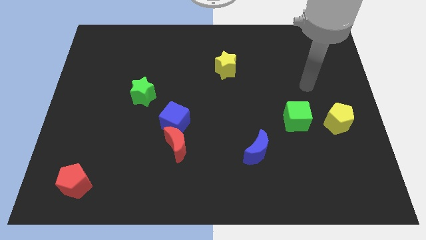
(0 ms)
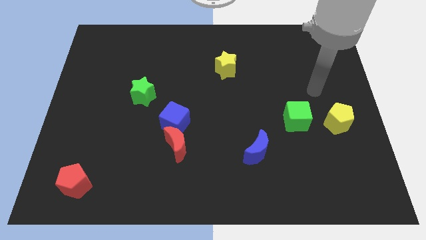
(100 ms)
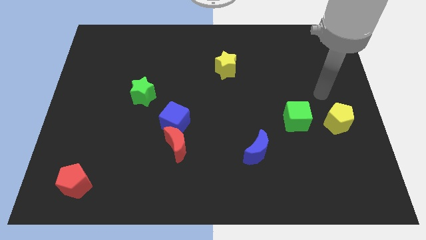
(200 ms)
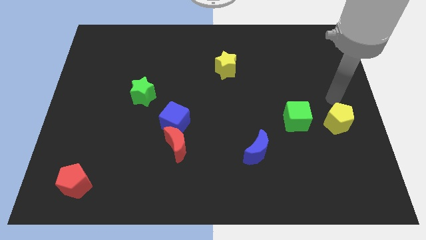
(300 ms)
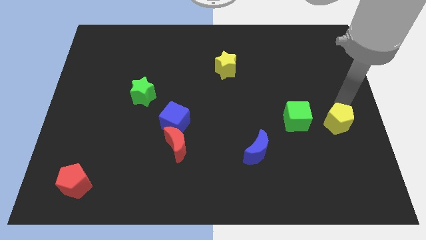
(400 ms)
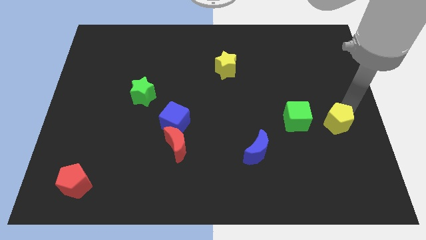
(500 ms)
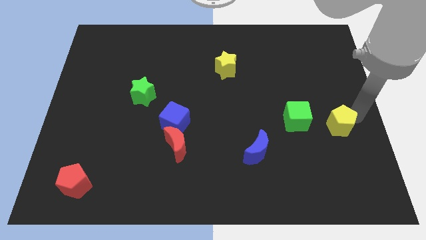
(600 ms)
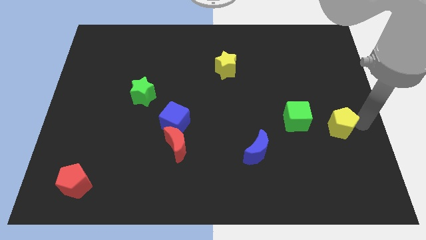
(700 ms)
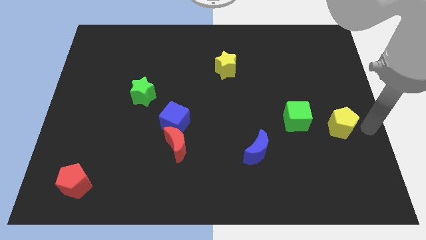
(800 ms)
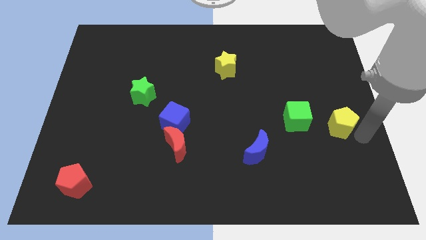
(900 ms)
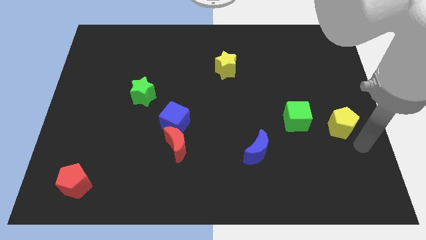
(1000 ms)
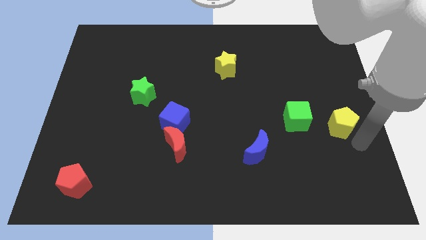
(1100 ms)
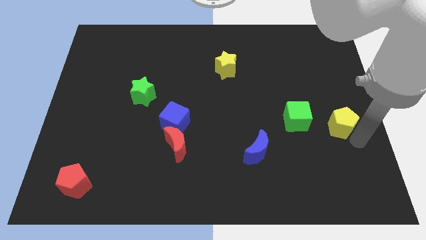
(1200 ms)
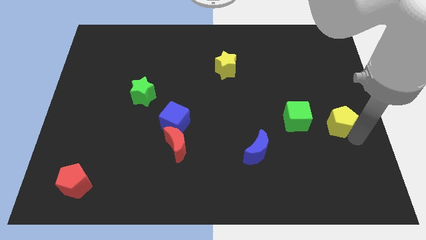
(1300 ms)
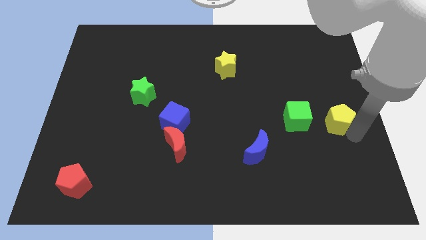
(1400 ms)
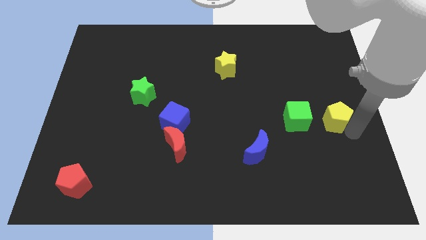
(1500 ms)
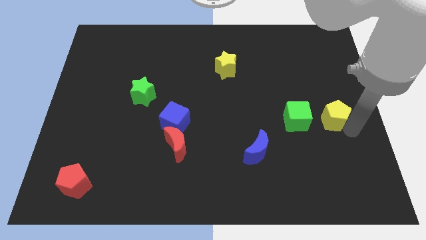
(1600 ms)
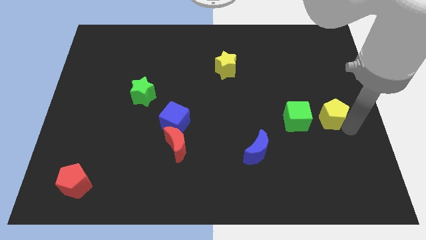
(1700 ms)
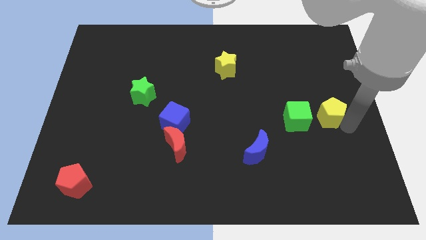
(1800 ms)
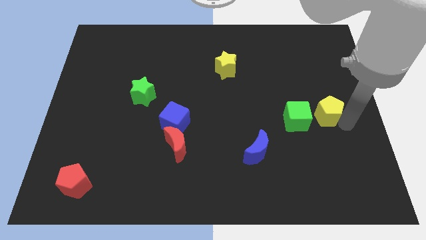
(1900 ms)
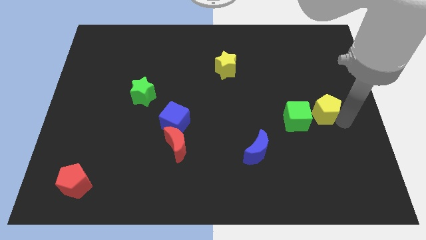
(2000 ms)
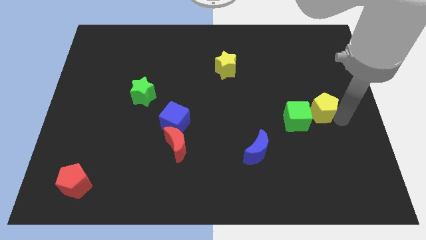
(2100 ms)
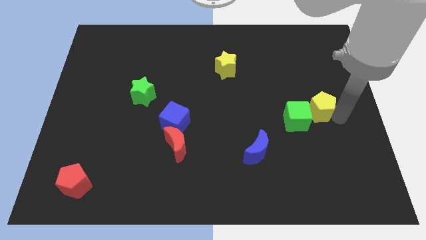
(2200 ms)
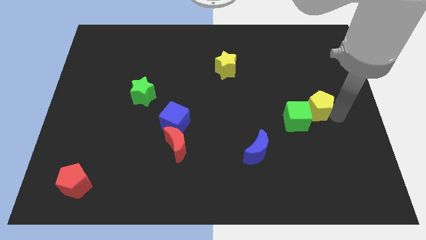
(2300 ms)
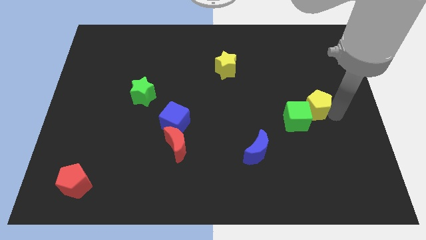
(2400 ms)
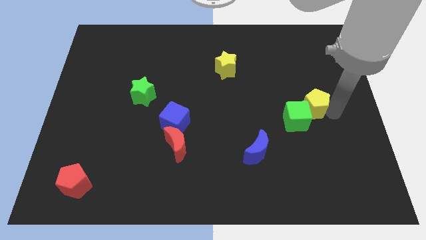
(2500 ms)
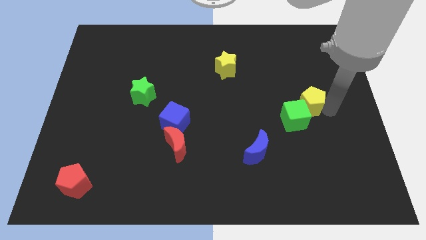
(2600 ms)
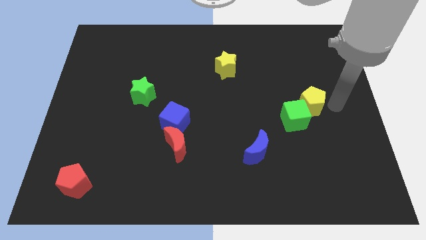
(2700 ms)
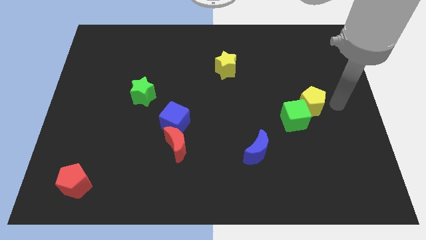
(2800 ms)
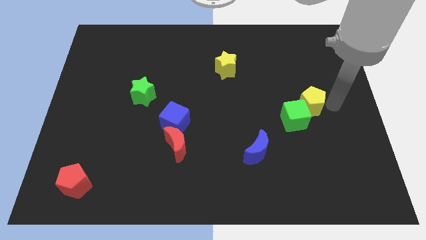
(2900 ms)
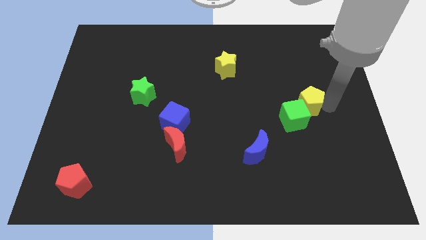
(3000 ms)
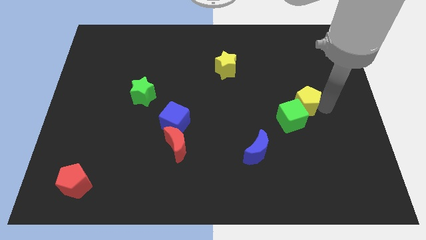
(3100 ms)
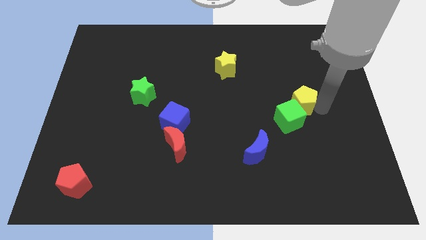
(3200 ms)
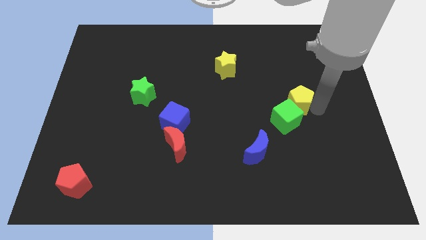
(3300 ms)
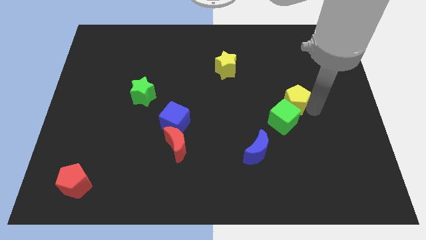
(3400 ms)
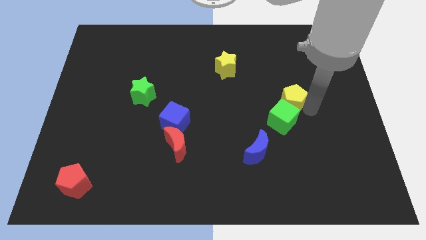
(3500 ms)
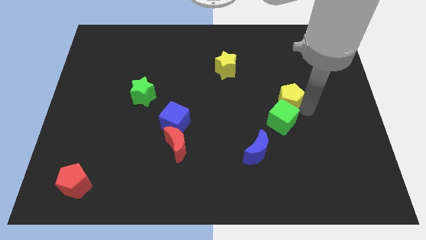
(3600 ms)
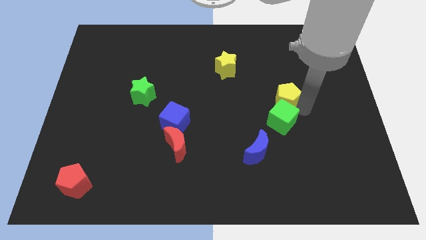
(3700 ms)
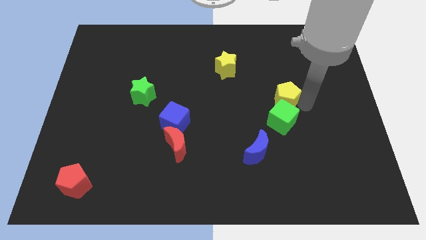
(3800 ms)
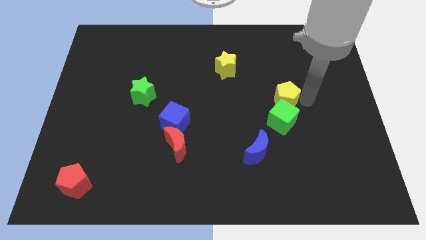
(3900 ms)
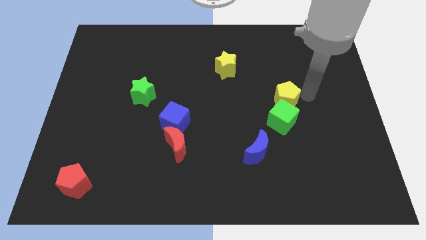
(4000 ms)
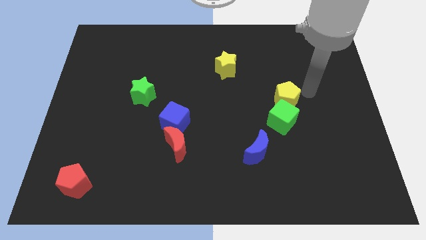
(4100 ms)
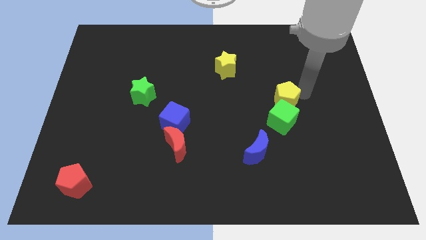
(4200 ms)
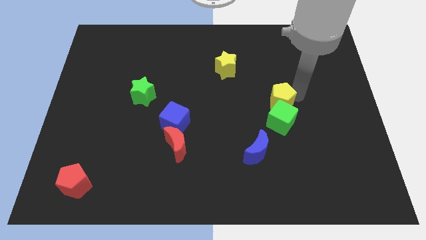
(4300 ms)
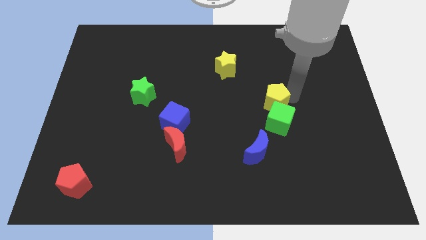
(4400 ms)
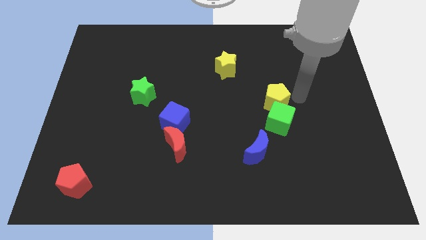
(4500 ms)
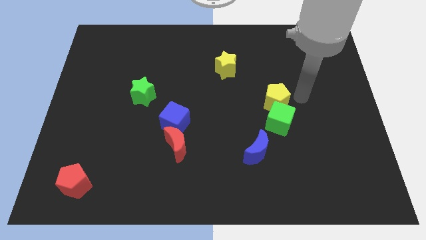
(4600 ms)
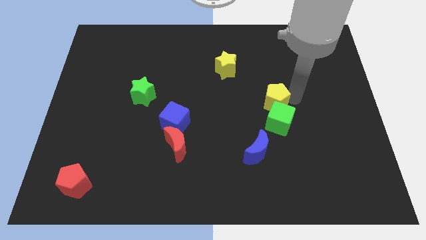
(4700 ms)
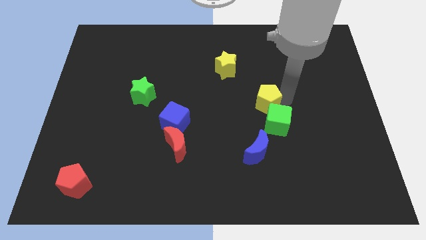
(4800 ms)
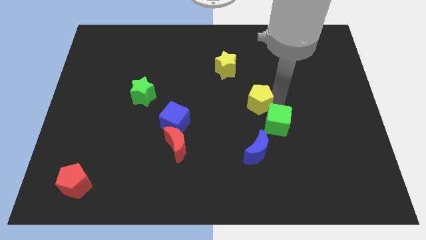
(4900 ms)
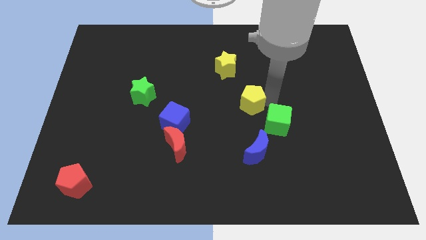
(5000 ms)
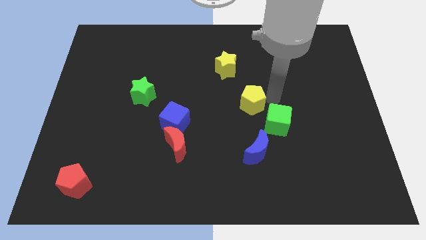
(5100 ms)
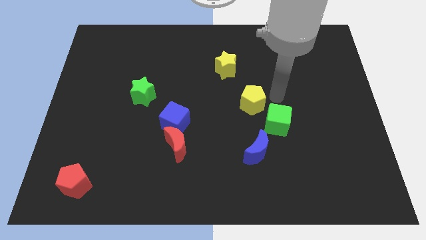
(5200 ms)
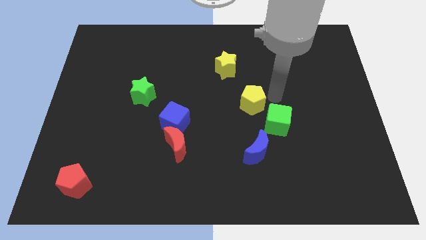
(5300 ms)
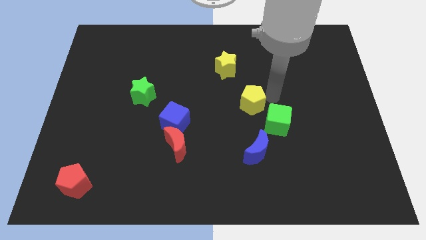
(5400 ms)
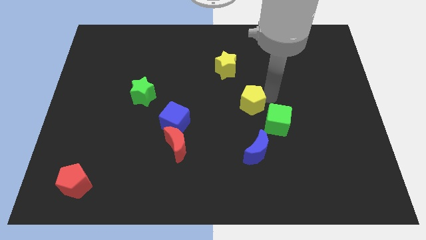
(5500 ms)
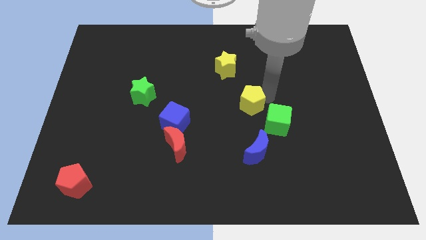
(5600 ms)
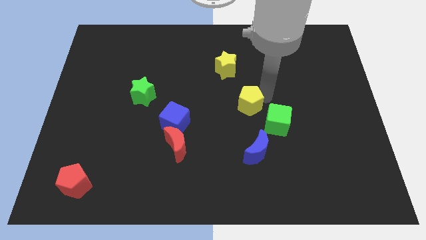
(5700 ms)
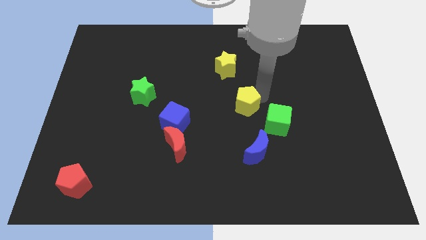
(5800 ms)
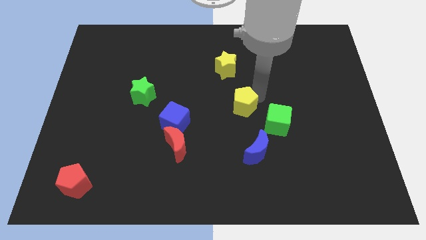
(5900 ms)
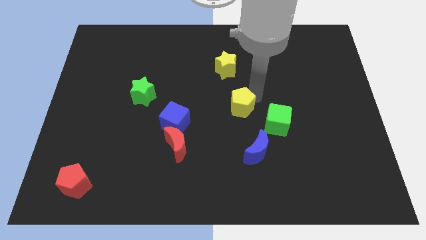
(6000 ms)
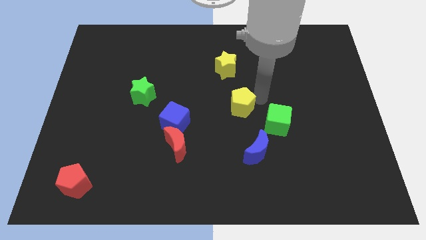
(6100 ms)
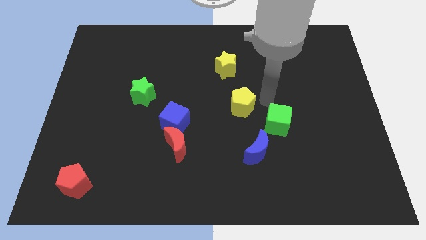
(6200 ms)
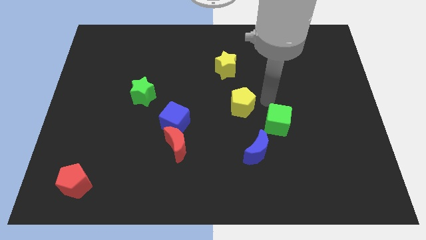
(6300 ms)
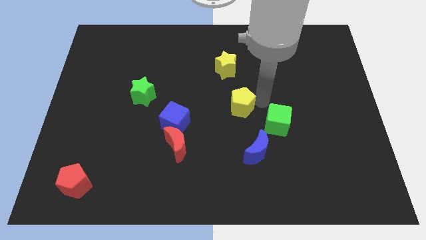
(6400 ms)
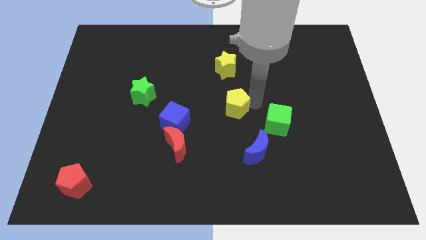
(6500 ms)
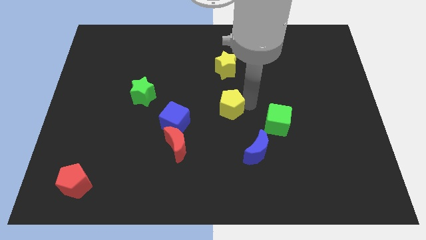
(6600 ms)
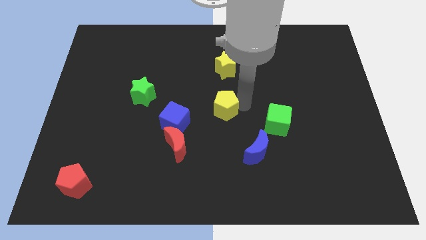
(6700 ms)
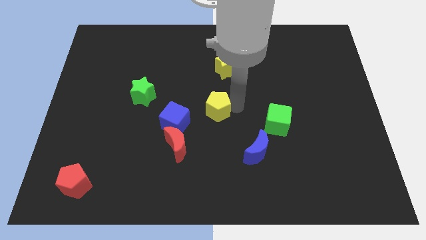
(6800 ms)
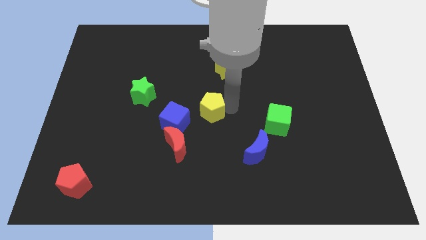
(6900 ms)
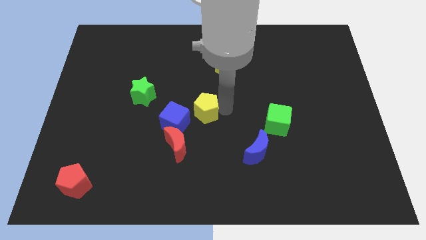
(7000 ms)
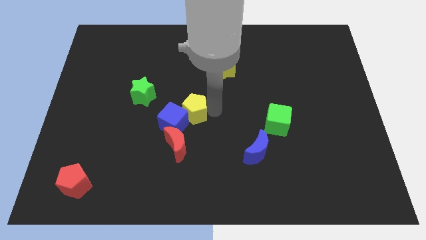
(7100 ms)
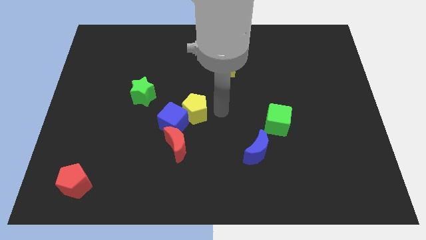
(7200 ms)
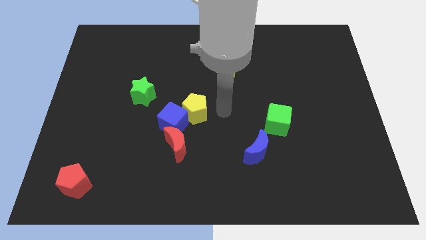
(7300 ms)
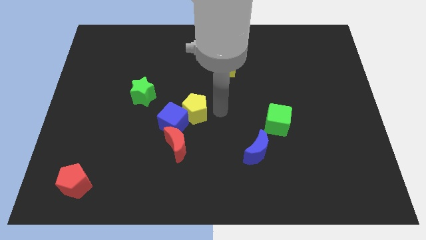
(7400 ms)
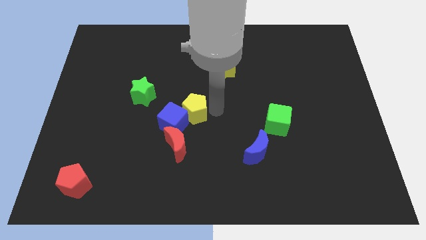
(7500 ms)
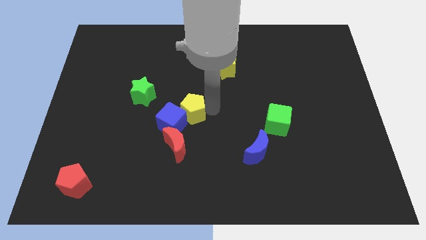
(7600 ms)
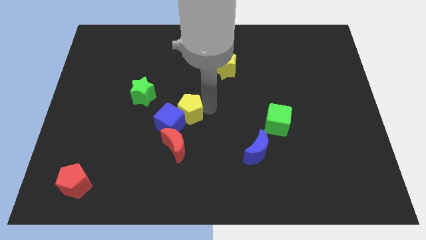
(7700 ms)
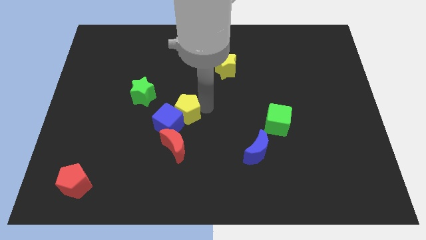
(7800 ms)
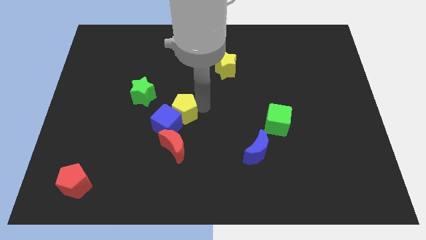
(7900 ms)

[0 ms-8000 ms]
slide the yellow pentagon diagonally down and to the right of the green star
